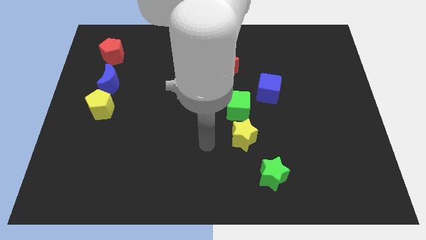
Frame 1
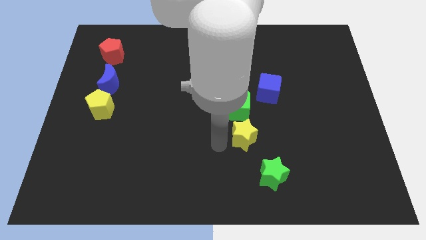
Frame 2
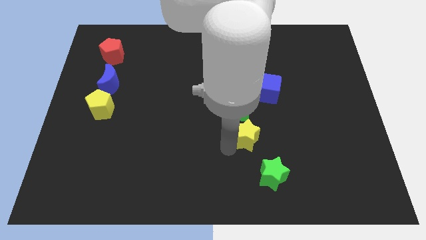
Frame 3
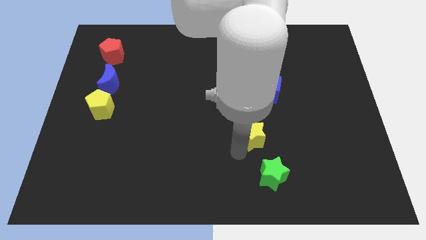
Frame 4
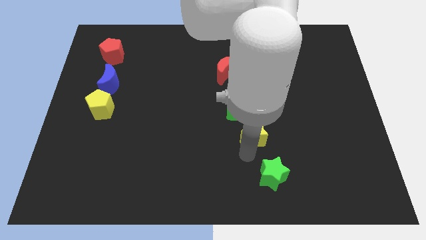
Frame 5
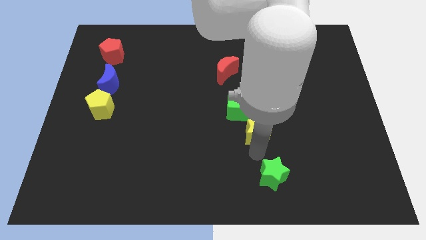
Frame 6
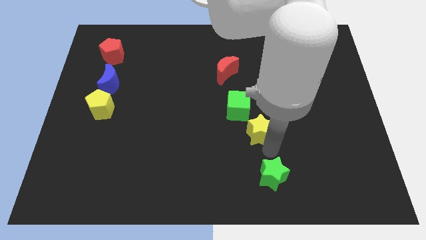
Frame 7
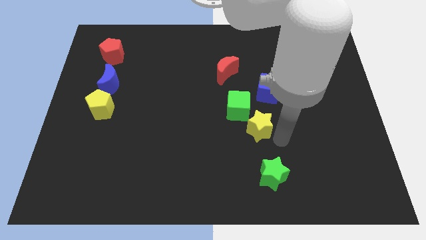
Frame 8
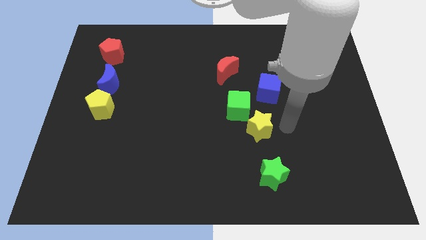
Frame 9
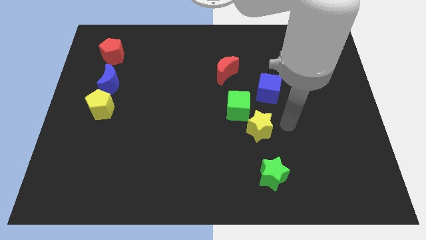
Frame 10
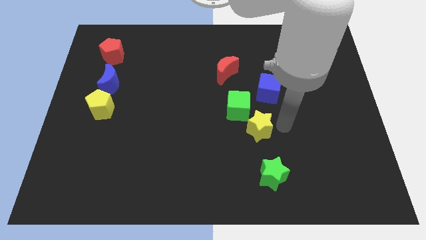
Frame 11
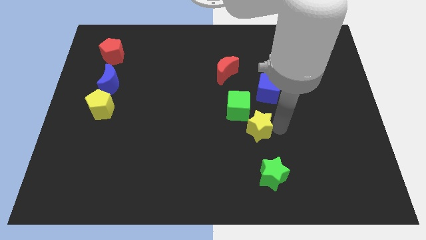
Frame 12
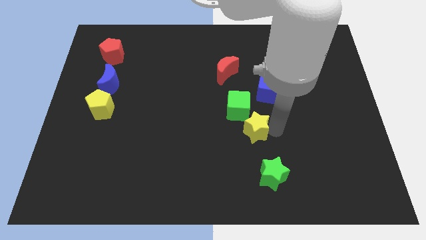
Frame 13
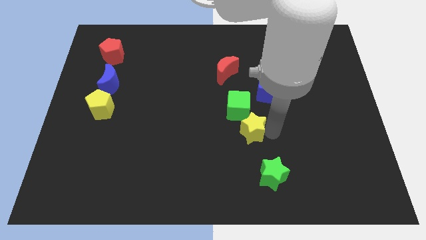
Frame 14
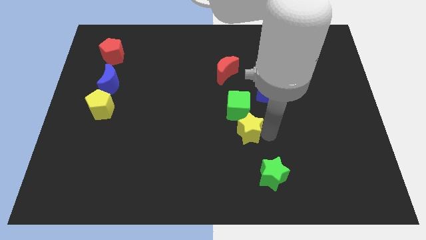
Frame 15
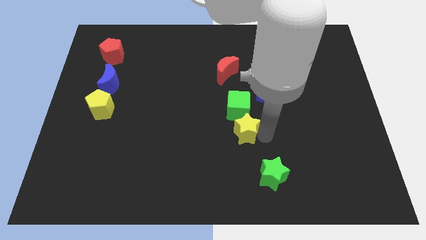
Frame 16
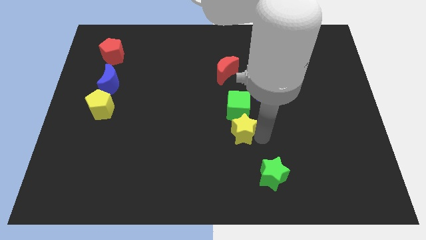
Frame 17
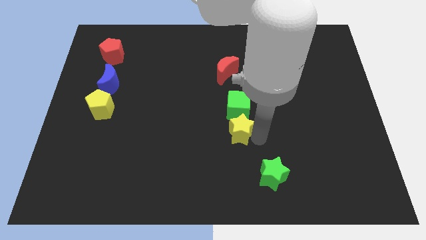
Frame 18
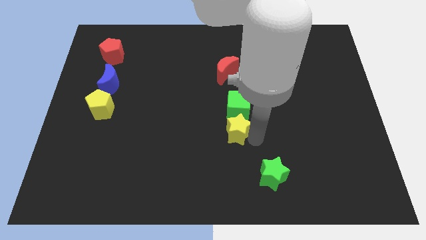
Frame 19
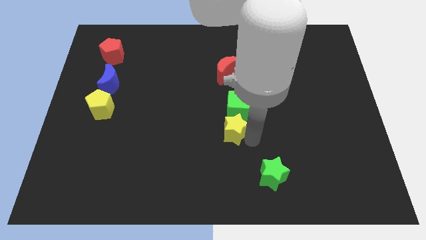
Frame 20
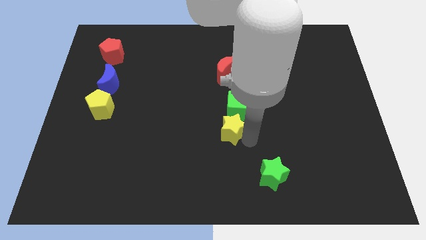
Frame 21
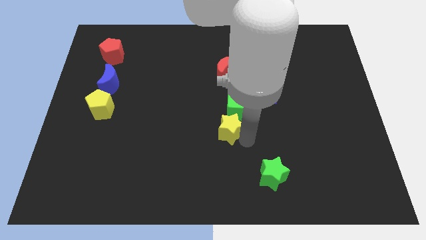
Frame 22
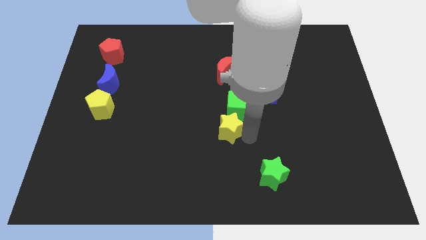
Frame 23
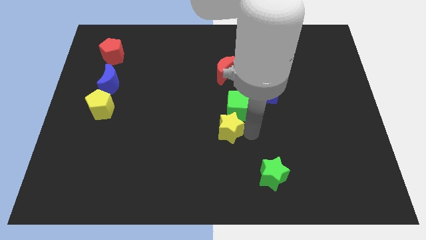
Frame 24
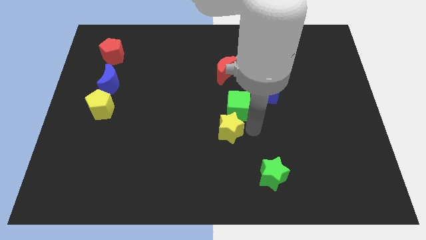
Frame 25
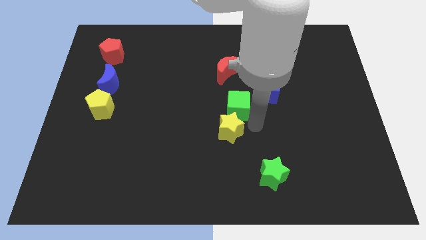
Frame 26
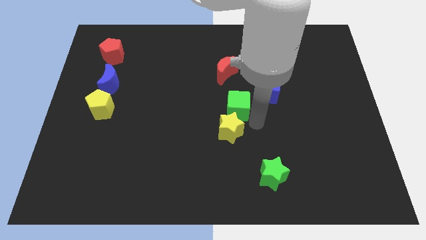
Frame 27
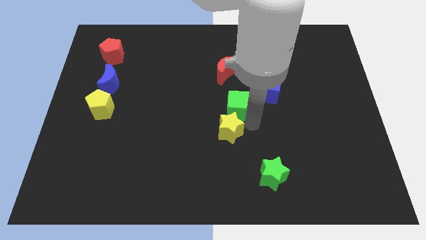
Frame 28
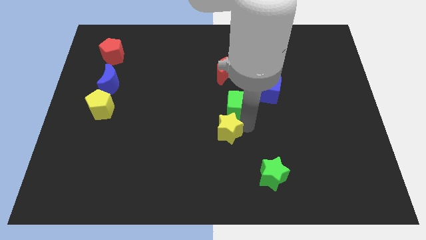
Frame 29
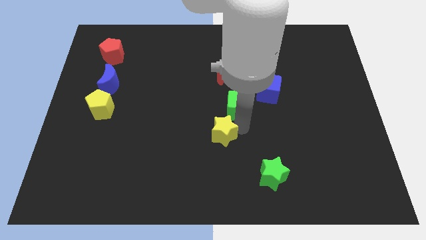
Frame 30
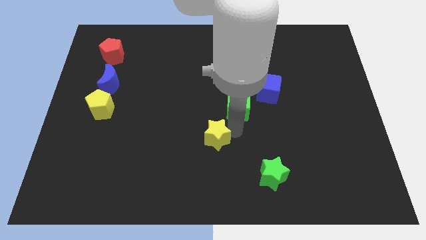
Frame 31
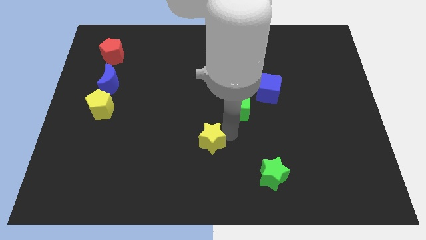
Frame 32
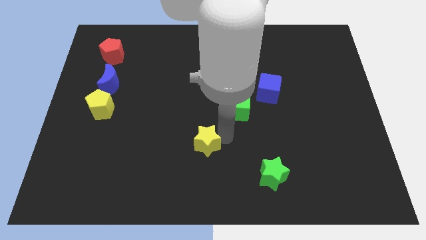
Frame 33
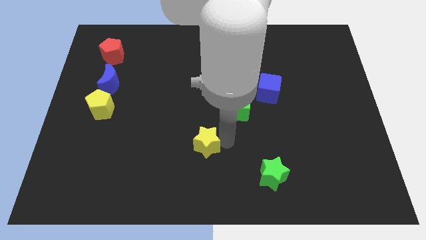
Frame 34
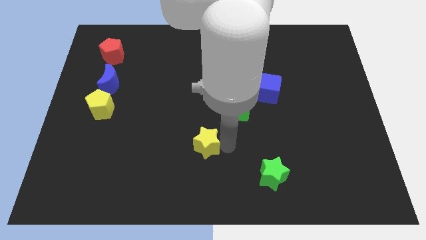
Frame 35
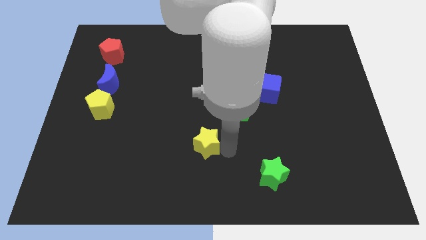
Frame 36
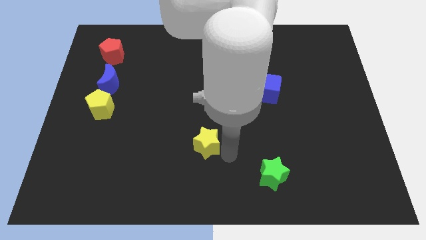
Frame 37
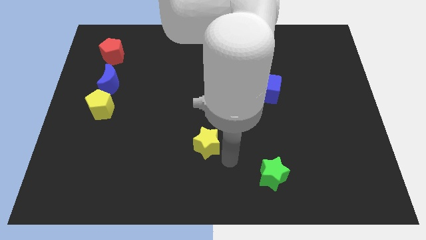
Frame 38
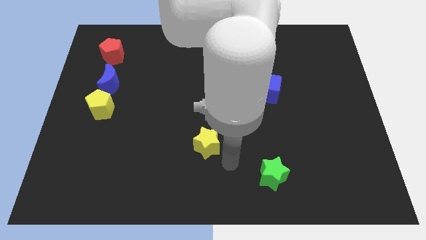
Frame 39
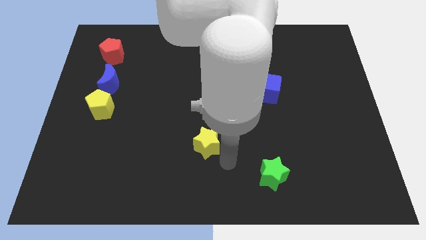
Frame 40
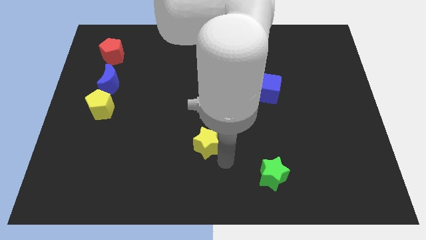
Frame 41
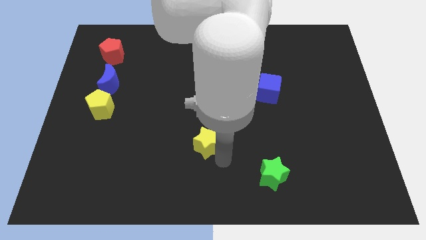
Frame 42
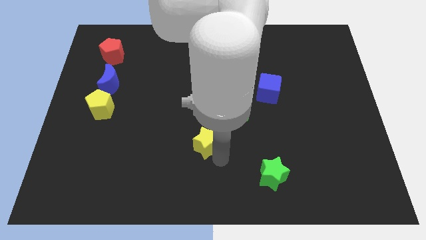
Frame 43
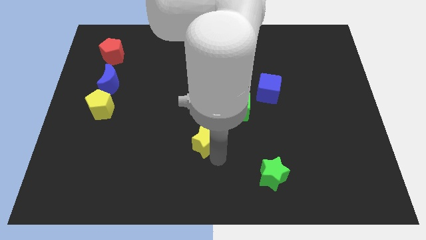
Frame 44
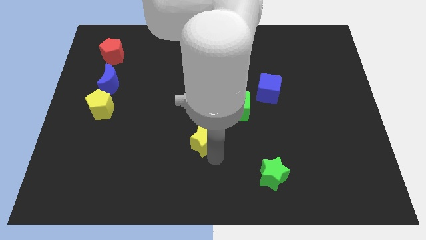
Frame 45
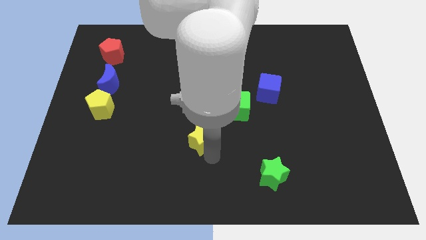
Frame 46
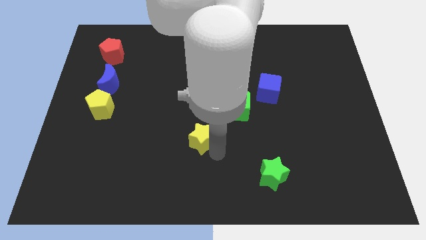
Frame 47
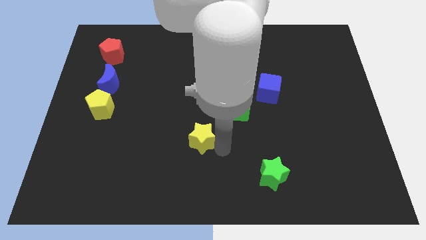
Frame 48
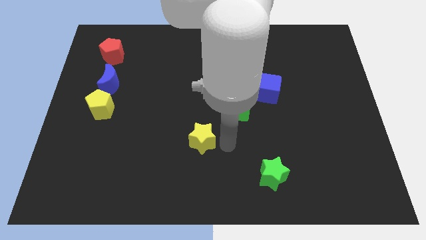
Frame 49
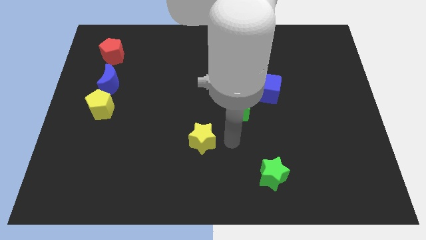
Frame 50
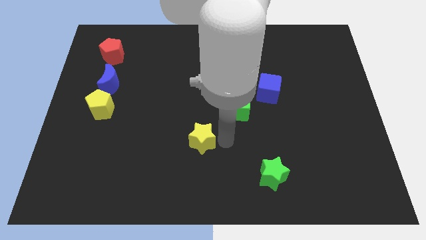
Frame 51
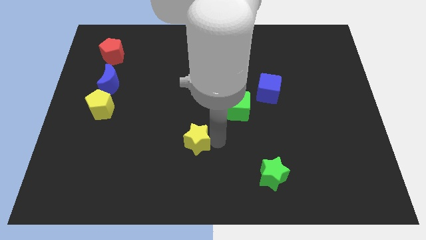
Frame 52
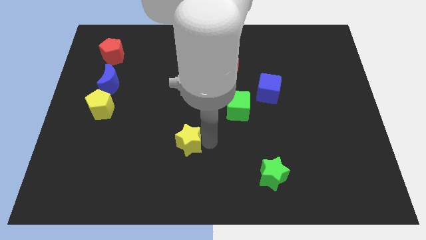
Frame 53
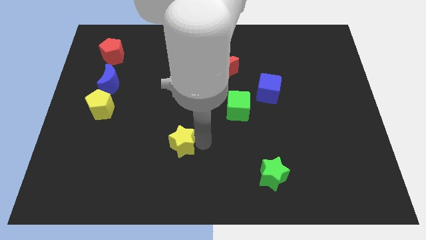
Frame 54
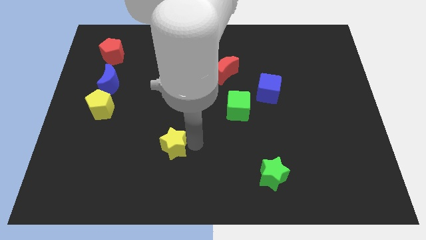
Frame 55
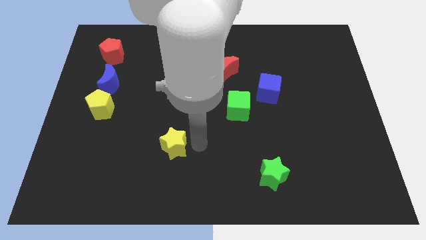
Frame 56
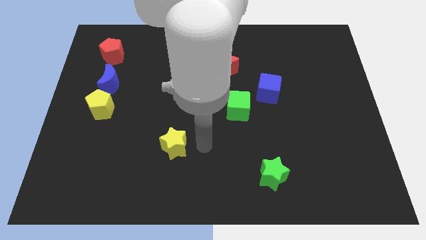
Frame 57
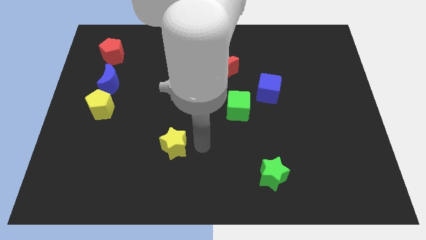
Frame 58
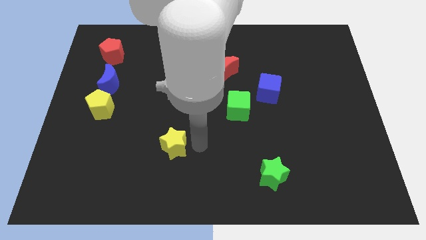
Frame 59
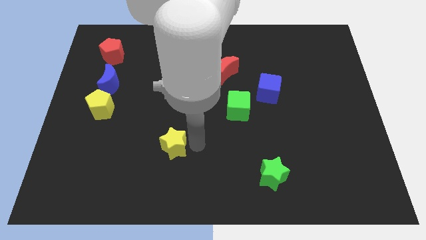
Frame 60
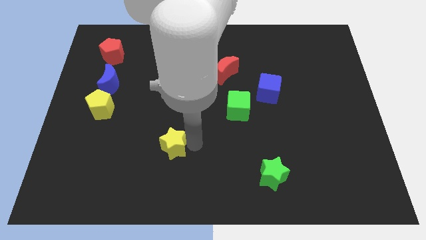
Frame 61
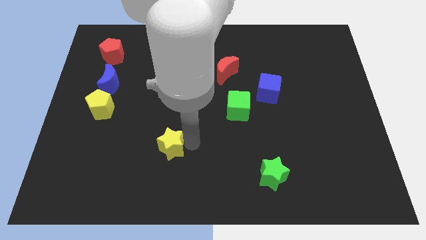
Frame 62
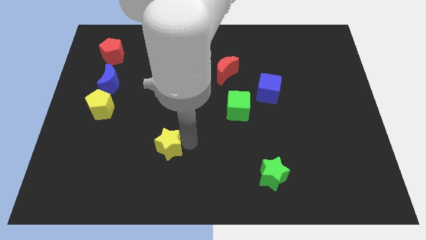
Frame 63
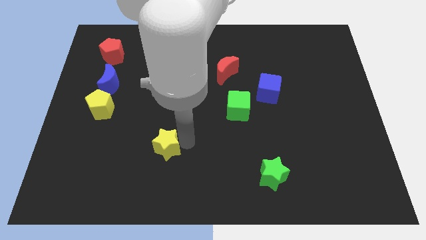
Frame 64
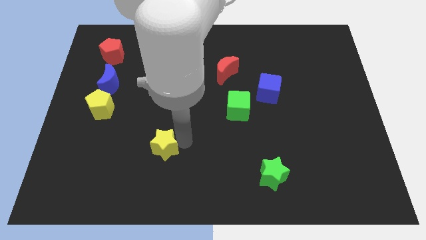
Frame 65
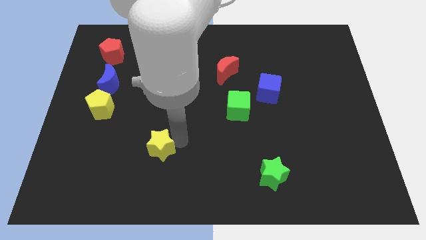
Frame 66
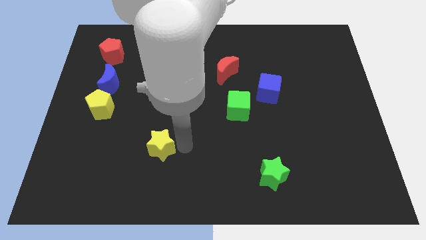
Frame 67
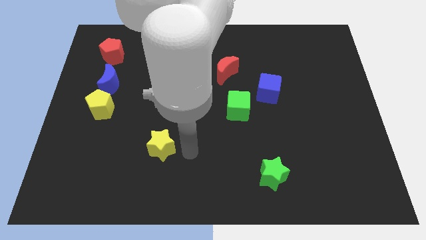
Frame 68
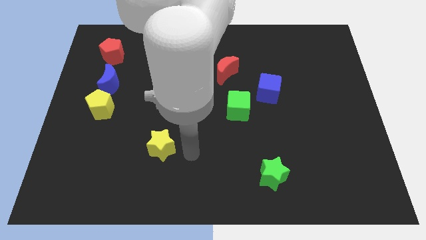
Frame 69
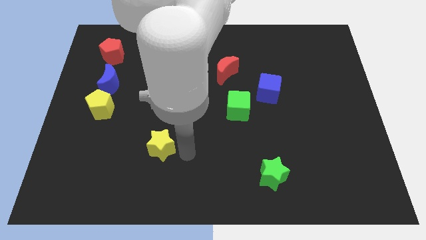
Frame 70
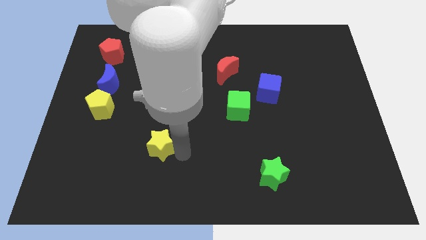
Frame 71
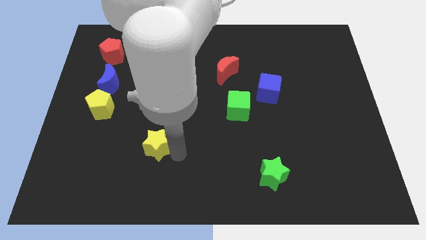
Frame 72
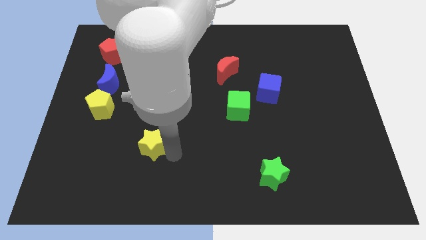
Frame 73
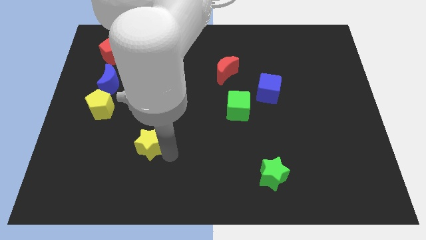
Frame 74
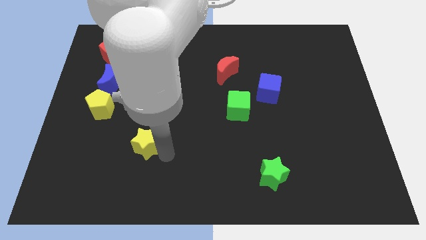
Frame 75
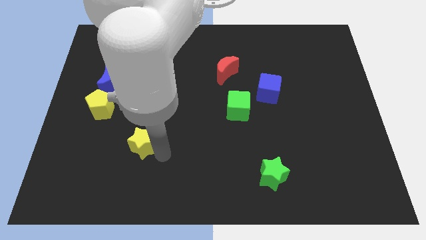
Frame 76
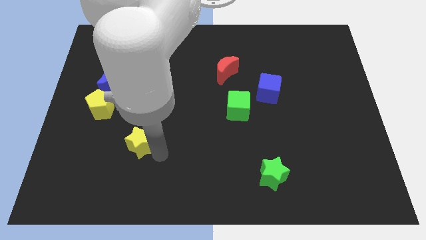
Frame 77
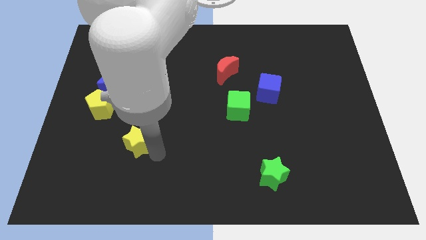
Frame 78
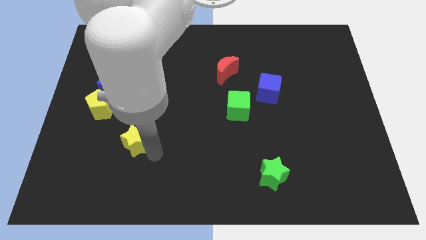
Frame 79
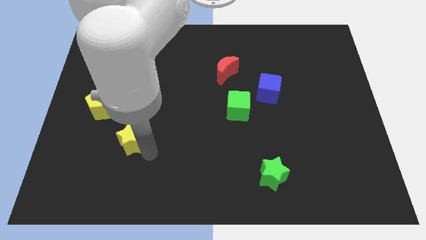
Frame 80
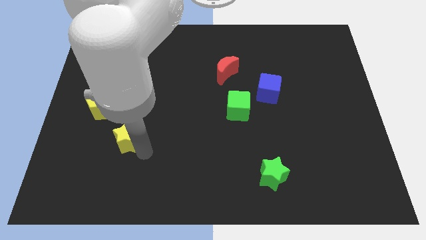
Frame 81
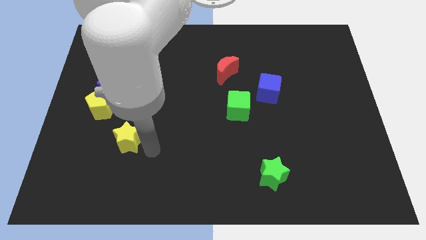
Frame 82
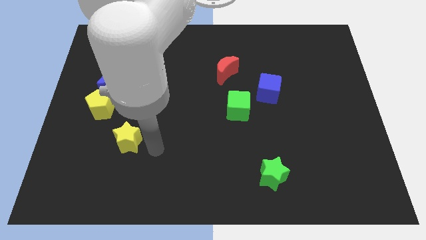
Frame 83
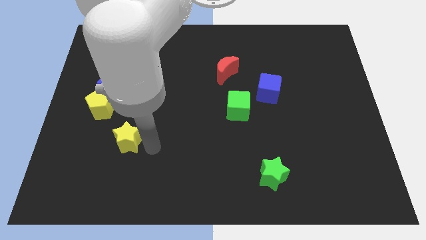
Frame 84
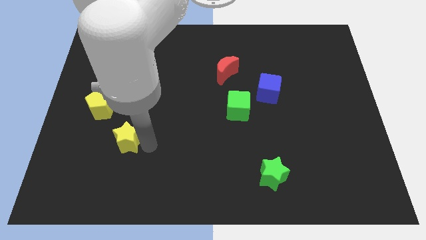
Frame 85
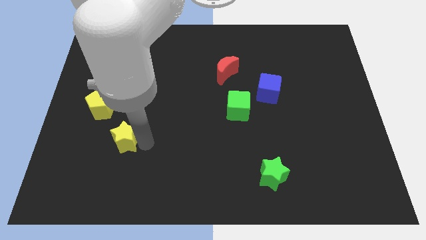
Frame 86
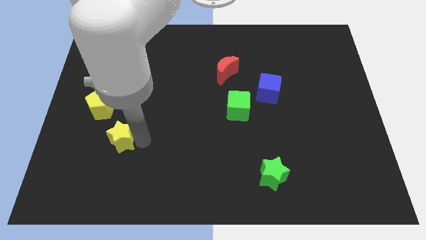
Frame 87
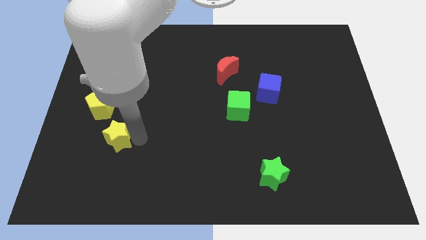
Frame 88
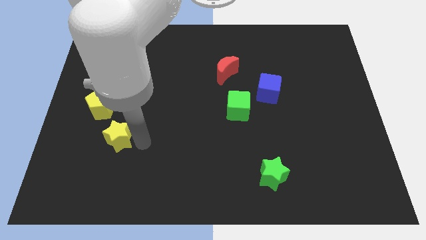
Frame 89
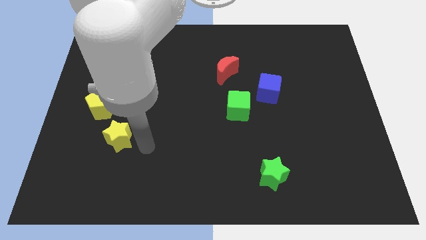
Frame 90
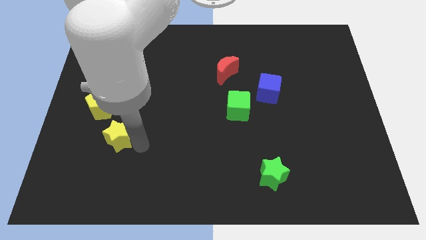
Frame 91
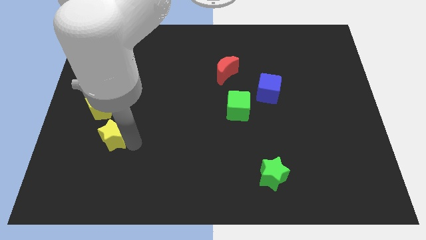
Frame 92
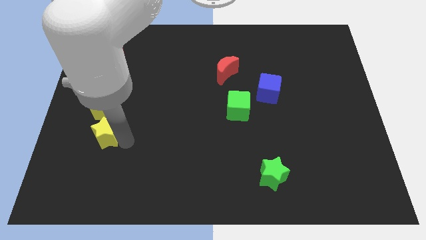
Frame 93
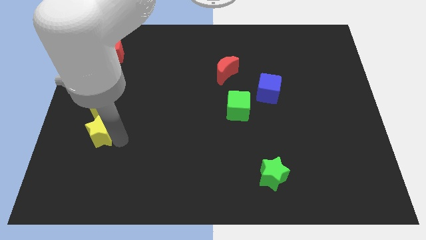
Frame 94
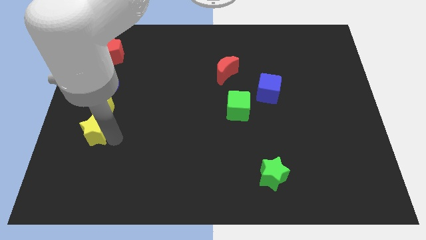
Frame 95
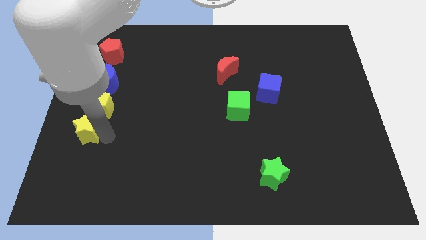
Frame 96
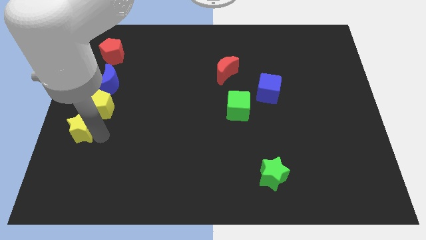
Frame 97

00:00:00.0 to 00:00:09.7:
push the yellow star to the left side of the board
